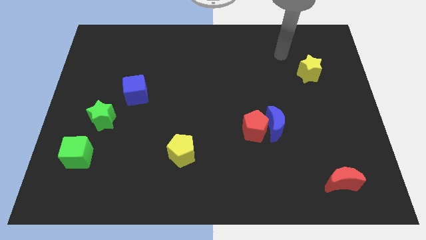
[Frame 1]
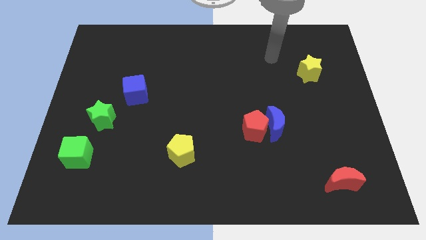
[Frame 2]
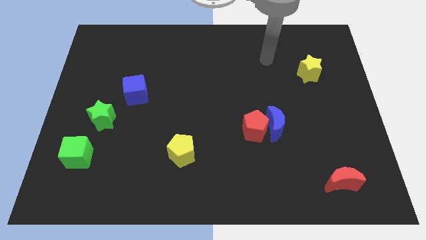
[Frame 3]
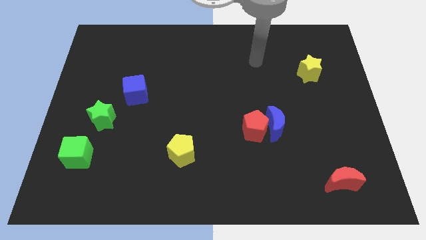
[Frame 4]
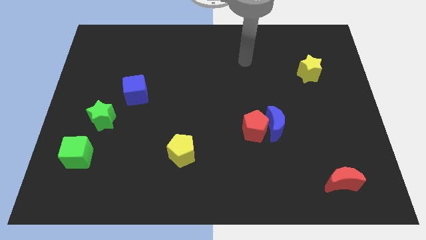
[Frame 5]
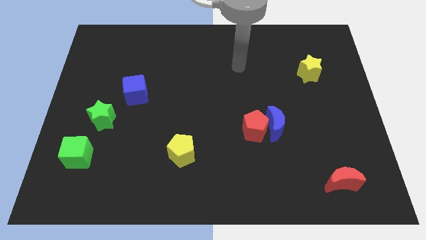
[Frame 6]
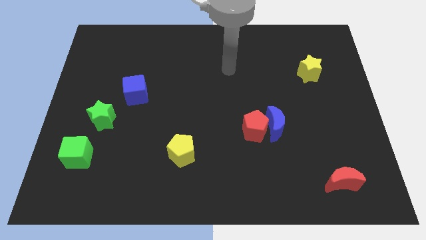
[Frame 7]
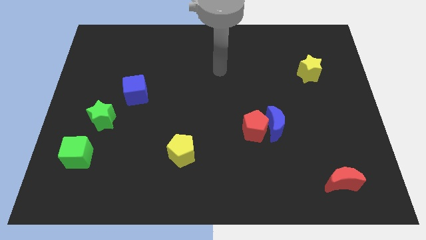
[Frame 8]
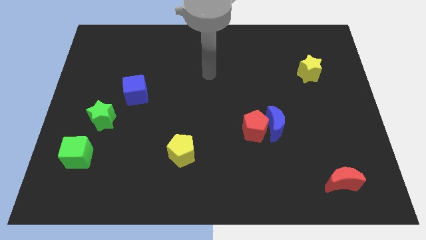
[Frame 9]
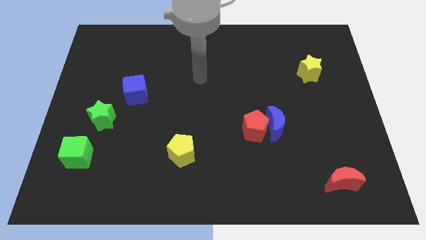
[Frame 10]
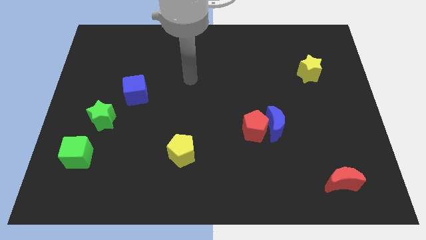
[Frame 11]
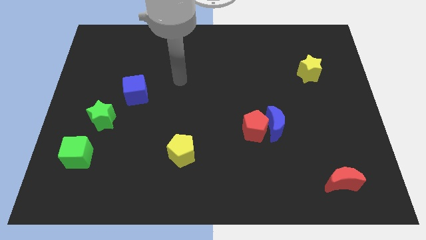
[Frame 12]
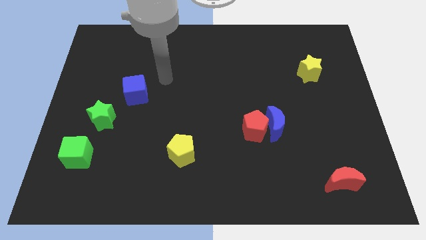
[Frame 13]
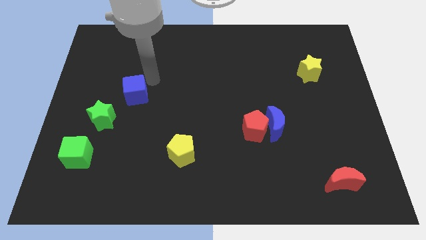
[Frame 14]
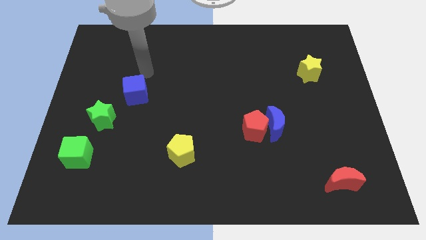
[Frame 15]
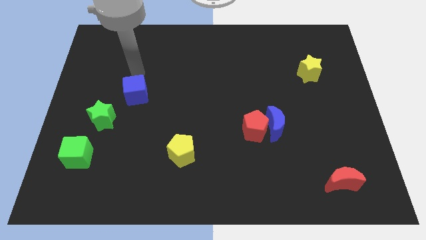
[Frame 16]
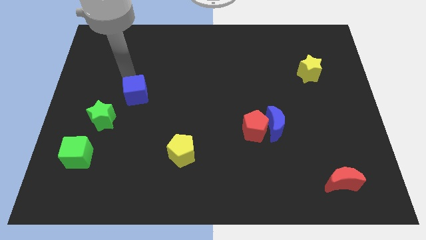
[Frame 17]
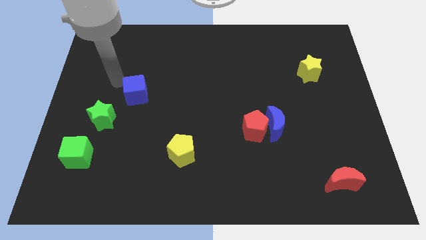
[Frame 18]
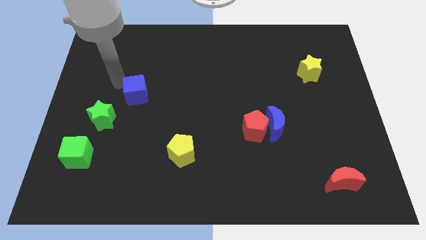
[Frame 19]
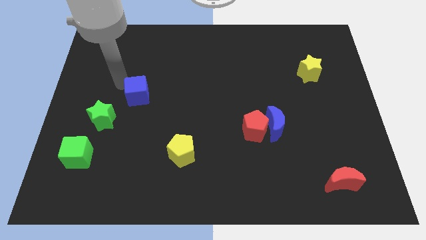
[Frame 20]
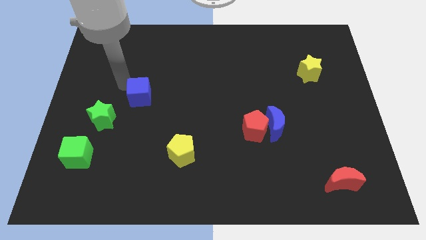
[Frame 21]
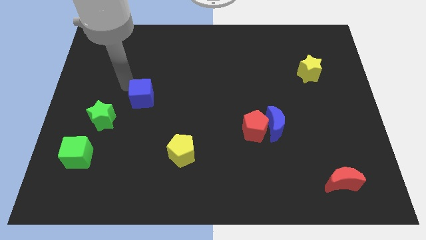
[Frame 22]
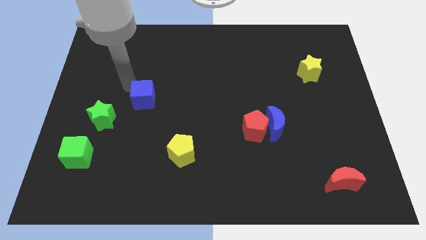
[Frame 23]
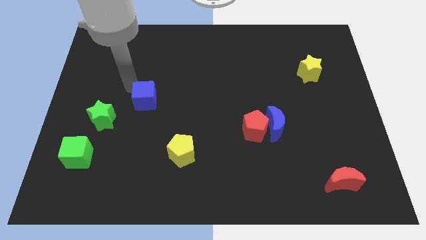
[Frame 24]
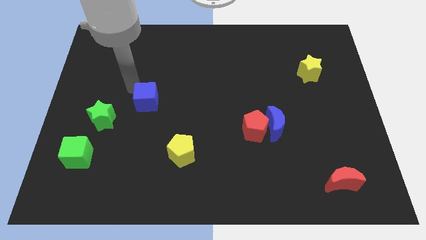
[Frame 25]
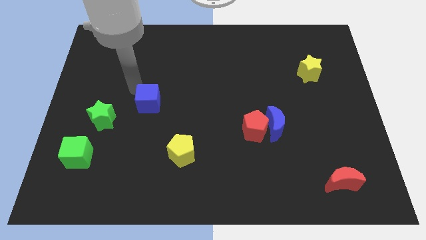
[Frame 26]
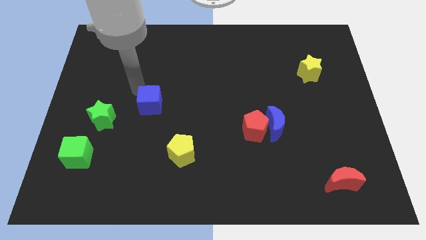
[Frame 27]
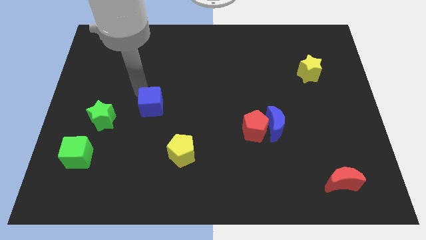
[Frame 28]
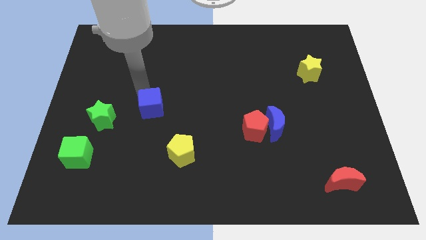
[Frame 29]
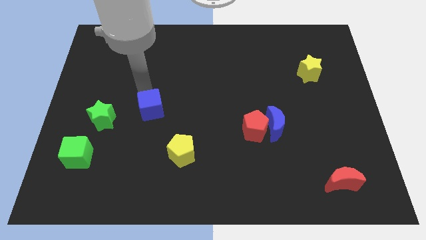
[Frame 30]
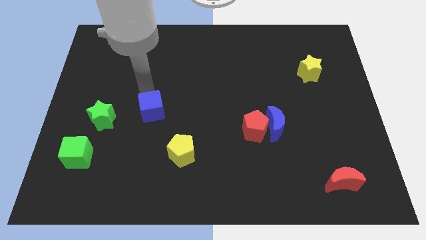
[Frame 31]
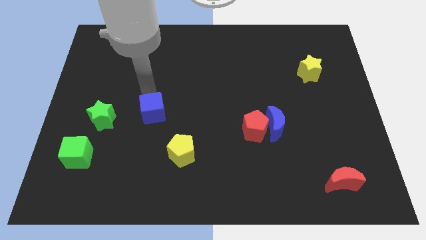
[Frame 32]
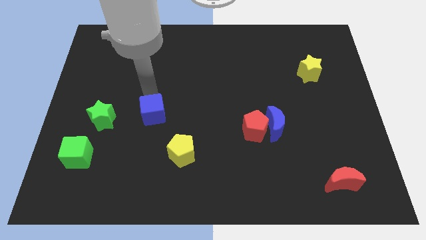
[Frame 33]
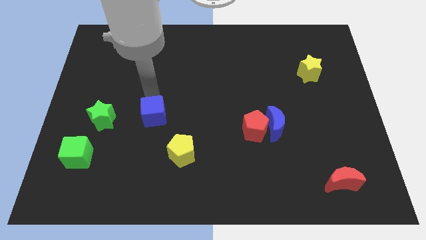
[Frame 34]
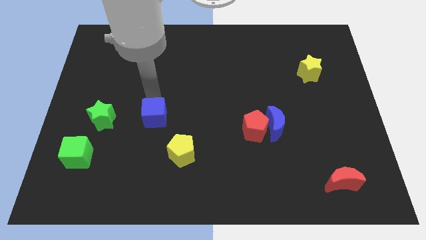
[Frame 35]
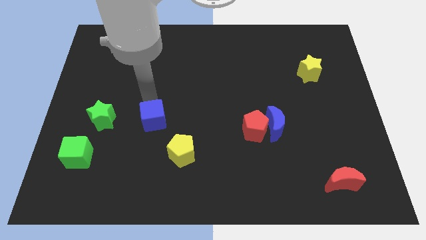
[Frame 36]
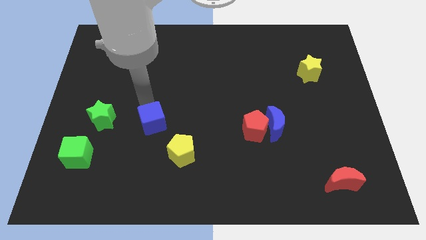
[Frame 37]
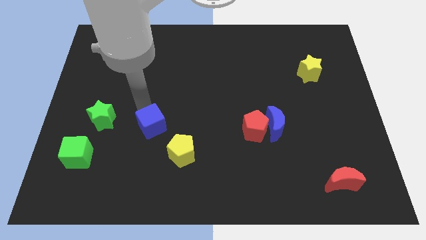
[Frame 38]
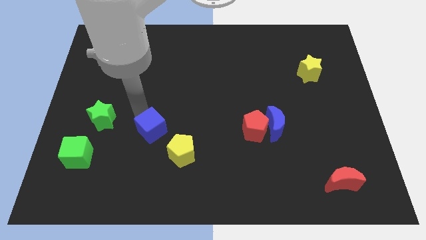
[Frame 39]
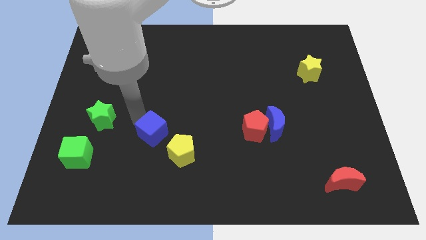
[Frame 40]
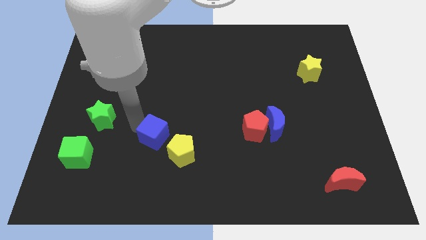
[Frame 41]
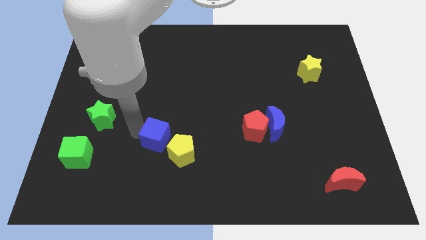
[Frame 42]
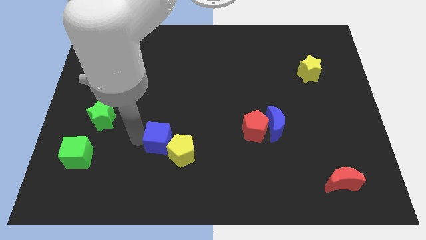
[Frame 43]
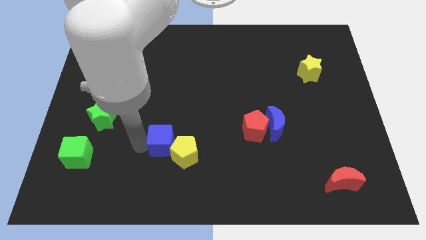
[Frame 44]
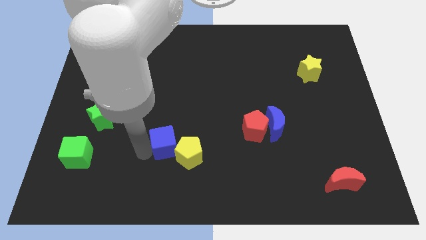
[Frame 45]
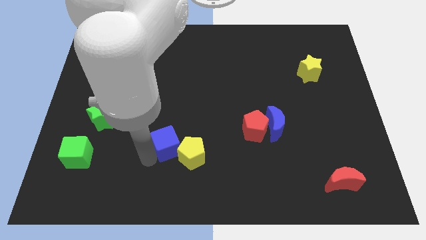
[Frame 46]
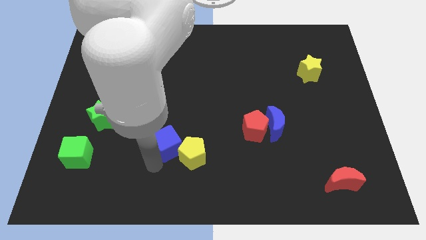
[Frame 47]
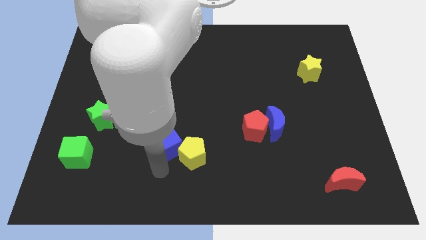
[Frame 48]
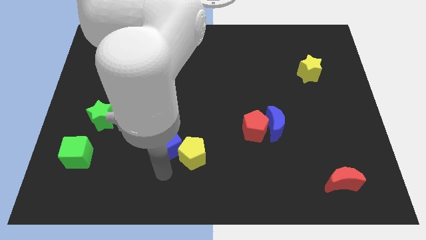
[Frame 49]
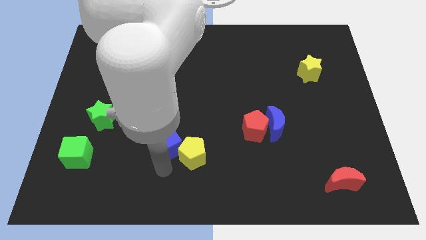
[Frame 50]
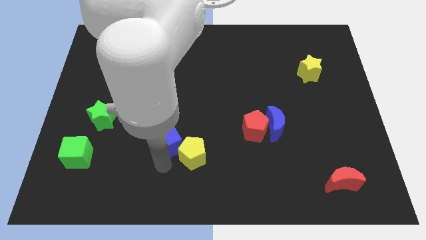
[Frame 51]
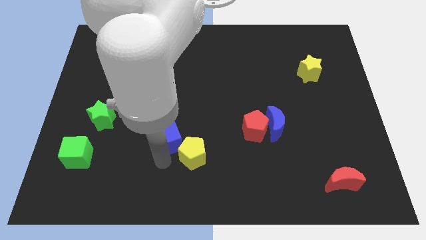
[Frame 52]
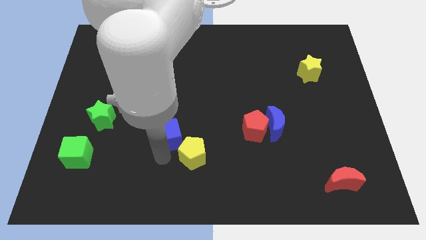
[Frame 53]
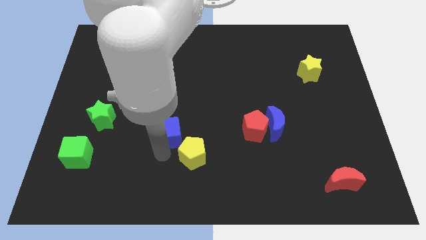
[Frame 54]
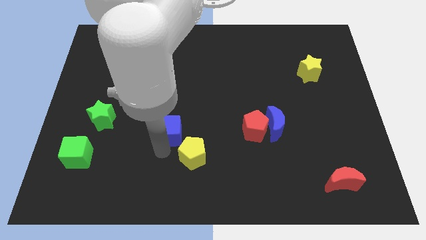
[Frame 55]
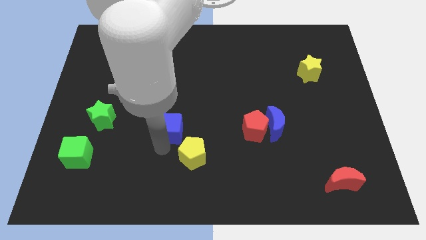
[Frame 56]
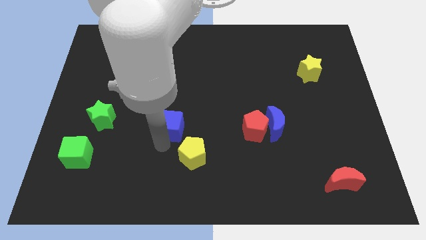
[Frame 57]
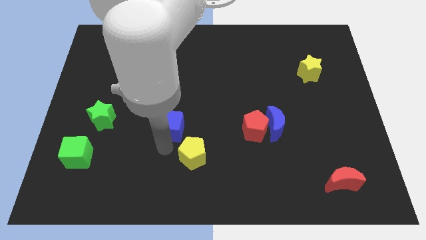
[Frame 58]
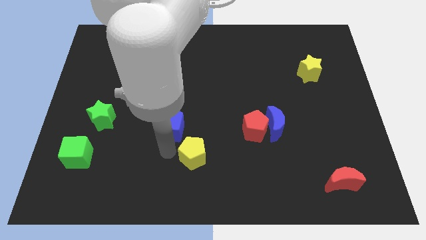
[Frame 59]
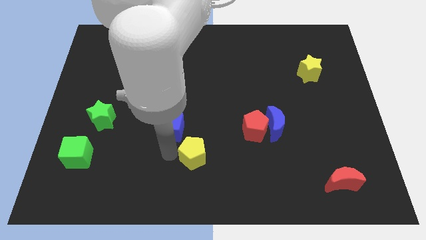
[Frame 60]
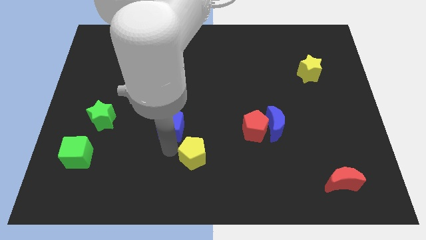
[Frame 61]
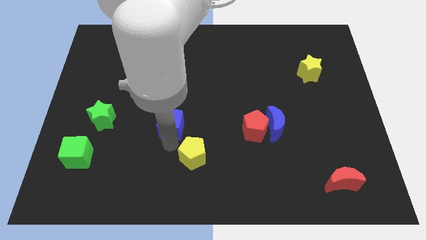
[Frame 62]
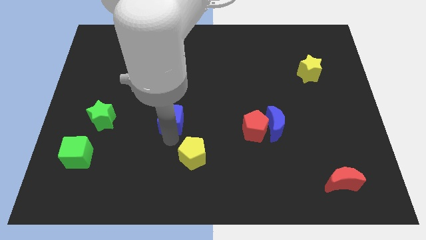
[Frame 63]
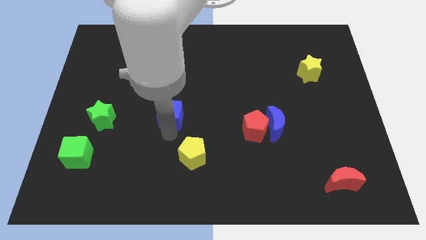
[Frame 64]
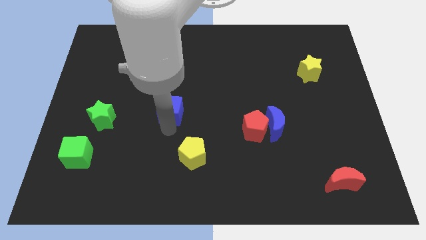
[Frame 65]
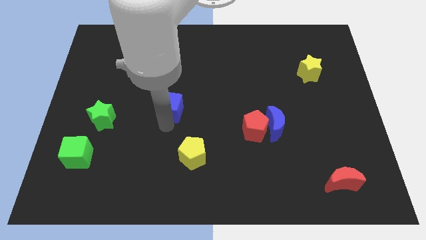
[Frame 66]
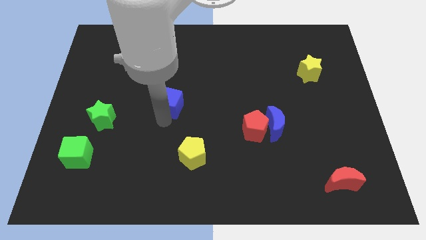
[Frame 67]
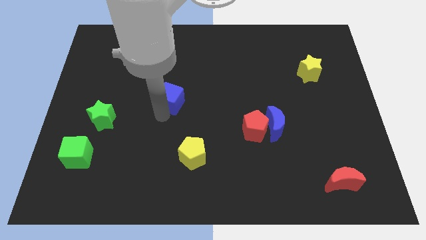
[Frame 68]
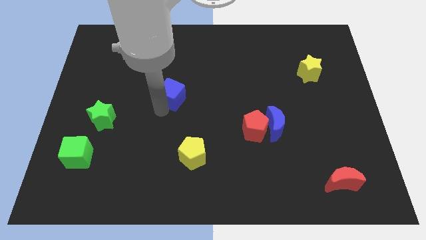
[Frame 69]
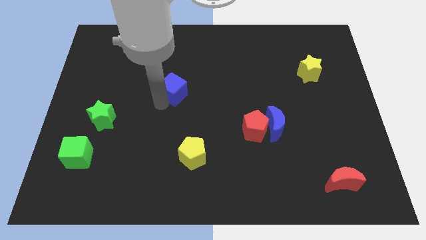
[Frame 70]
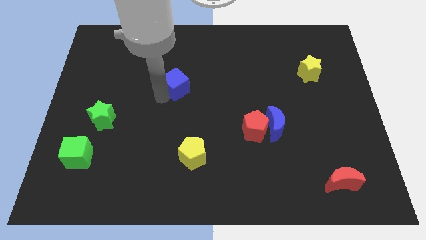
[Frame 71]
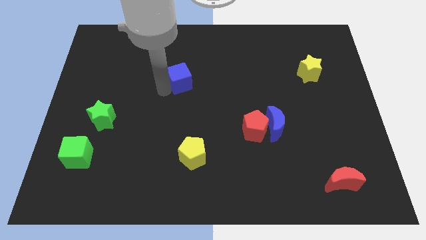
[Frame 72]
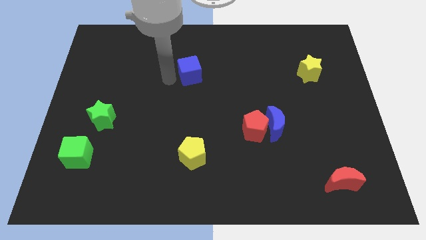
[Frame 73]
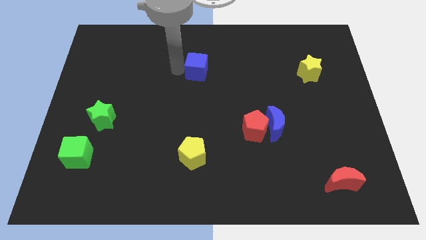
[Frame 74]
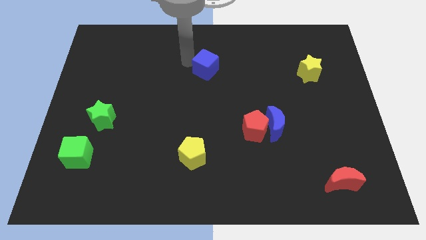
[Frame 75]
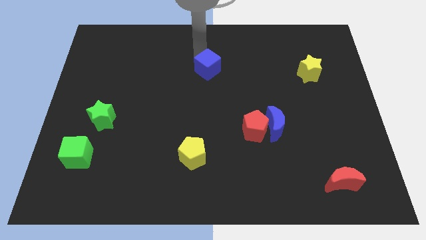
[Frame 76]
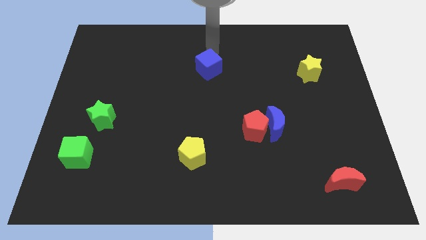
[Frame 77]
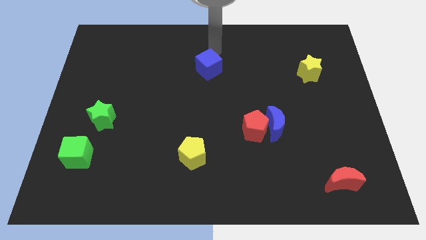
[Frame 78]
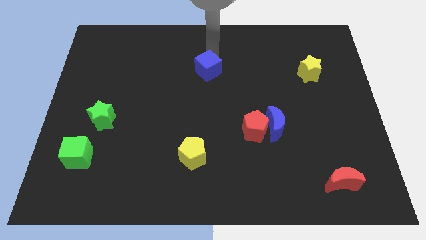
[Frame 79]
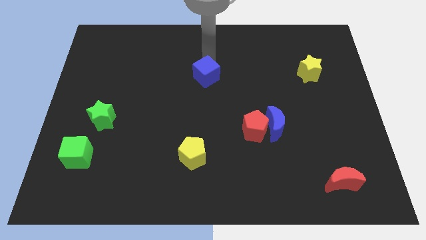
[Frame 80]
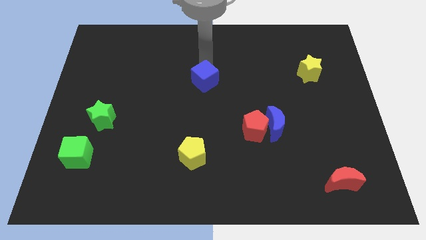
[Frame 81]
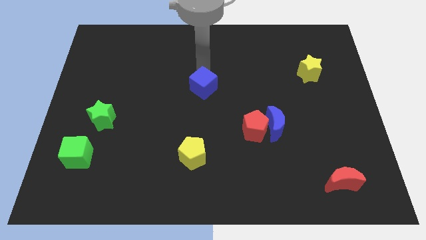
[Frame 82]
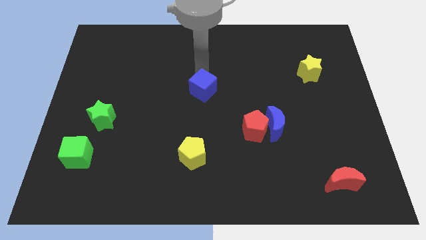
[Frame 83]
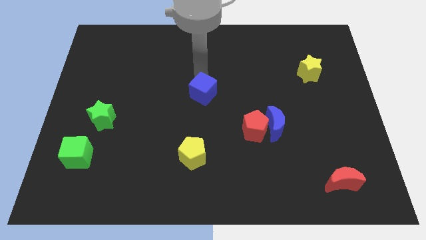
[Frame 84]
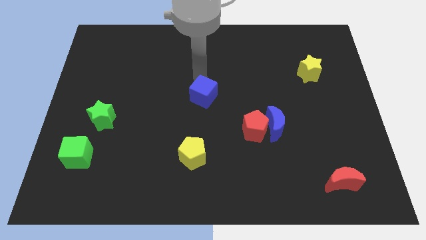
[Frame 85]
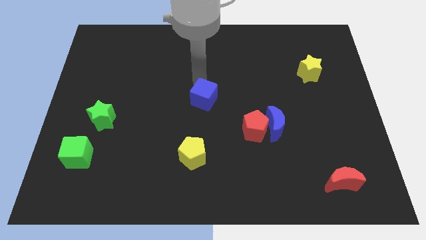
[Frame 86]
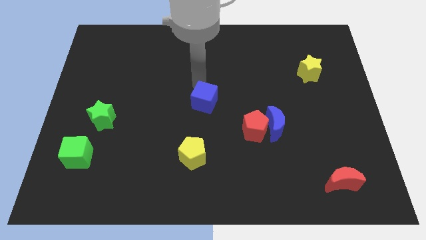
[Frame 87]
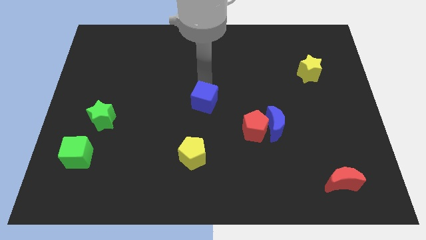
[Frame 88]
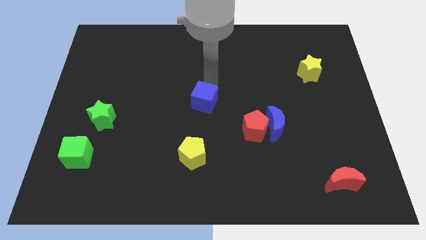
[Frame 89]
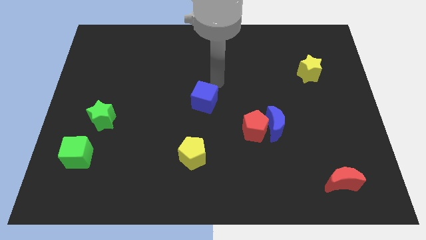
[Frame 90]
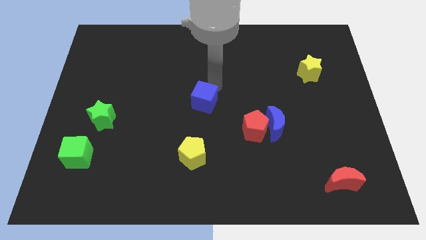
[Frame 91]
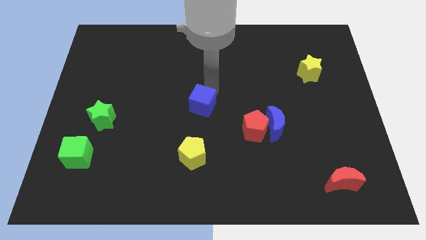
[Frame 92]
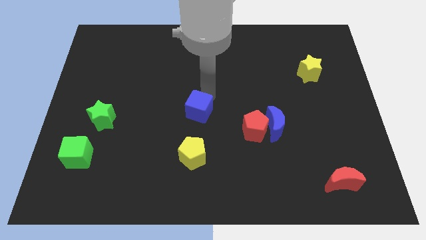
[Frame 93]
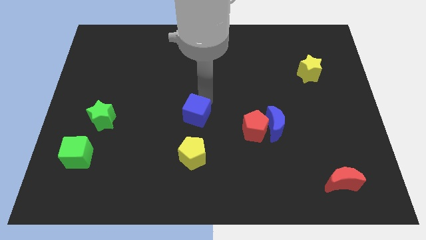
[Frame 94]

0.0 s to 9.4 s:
move the blue cube just left of the red pentagon
